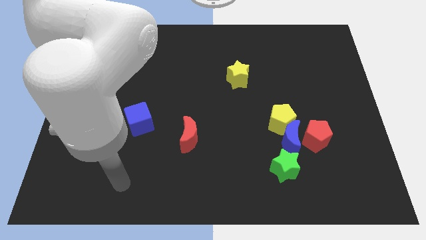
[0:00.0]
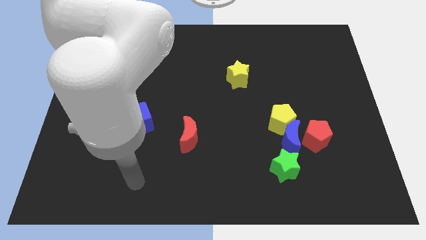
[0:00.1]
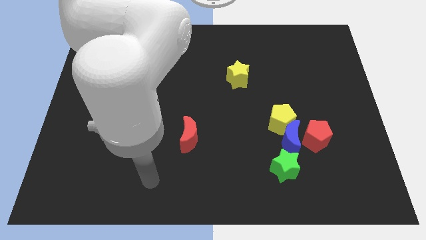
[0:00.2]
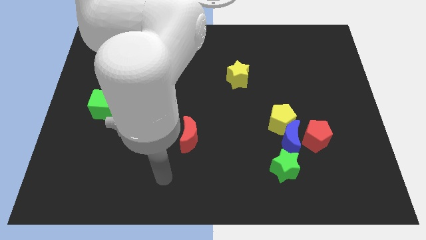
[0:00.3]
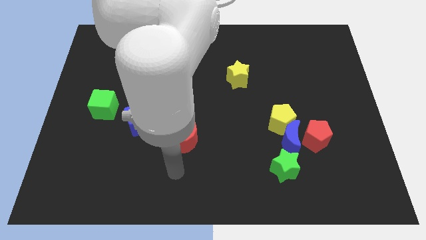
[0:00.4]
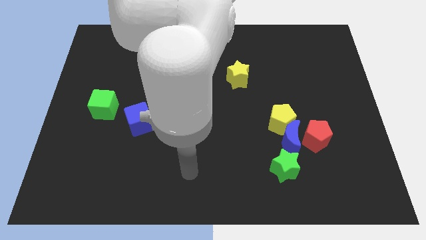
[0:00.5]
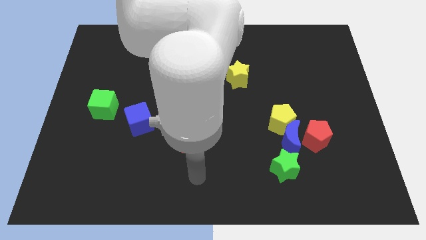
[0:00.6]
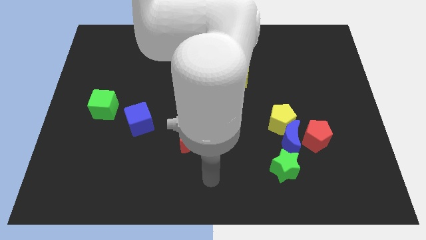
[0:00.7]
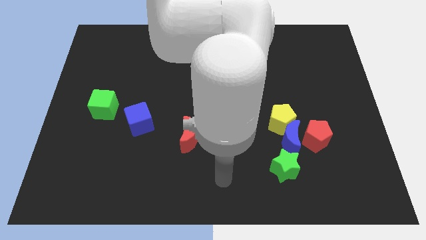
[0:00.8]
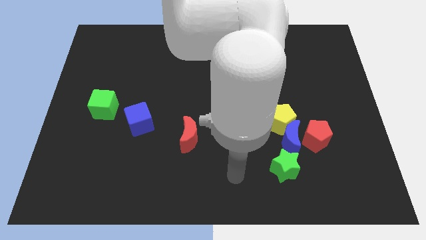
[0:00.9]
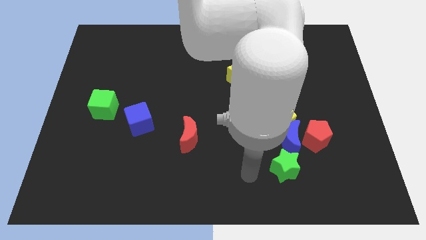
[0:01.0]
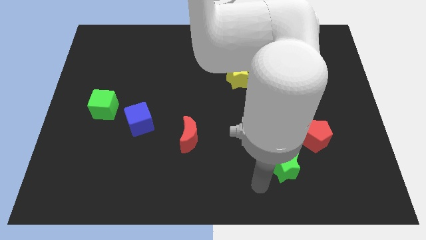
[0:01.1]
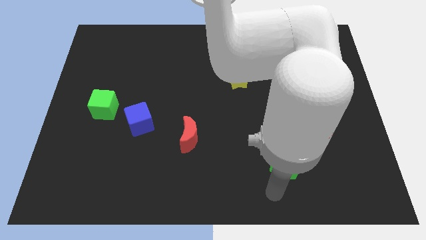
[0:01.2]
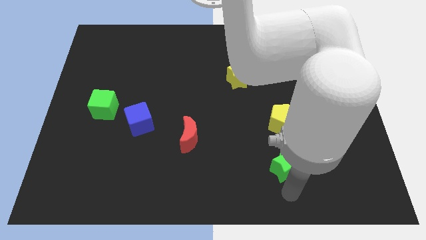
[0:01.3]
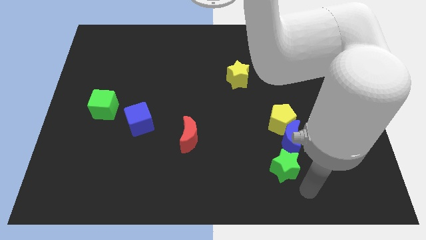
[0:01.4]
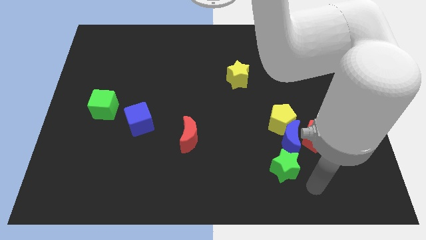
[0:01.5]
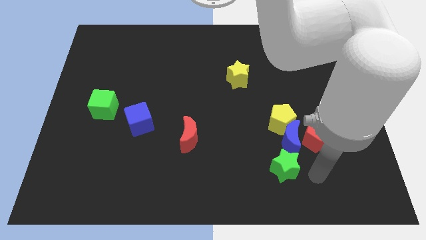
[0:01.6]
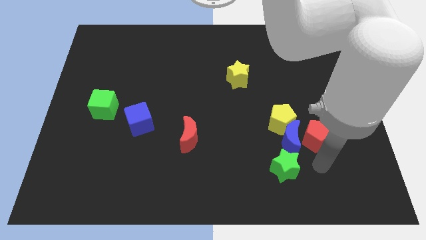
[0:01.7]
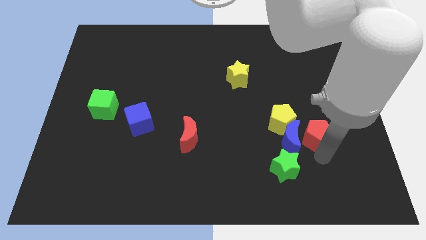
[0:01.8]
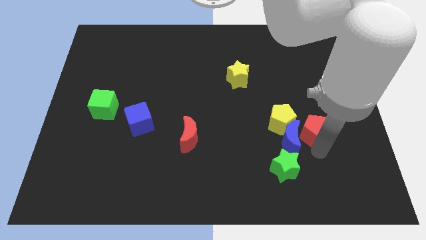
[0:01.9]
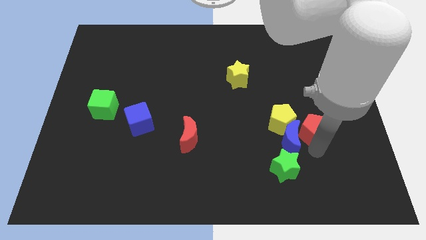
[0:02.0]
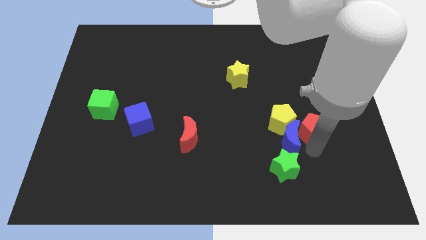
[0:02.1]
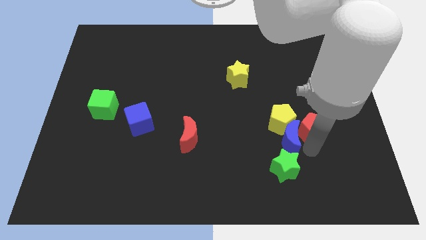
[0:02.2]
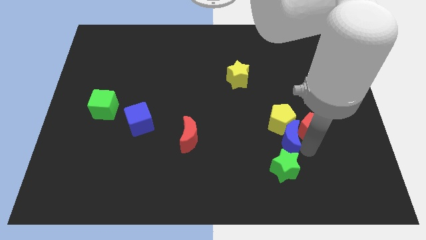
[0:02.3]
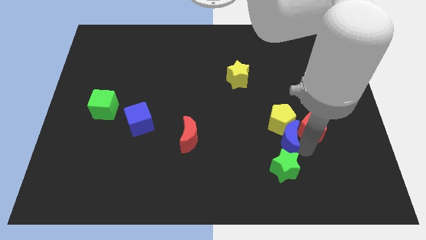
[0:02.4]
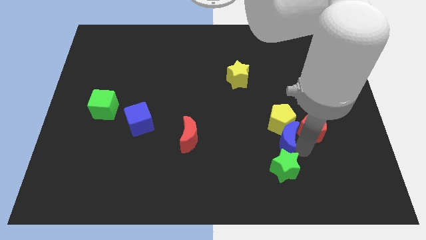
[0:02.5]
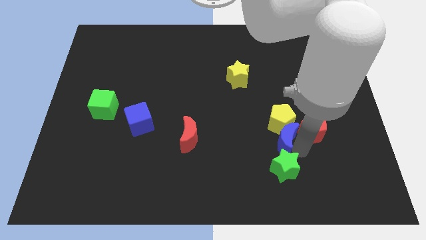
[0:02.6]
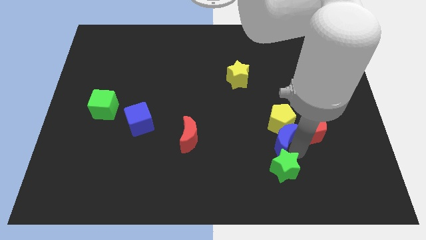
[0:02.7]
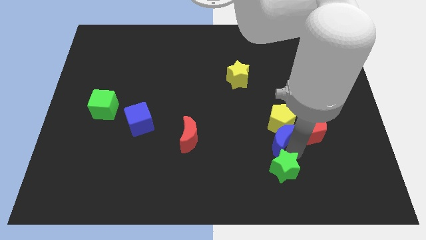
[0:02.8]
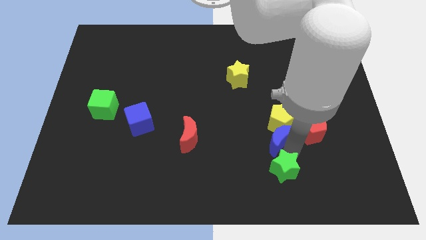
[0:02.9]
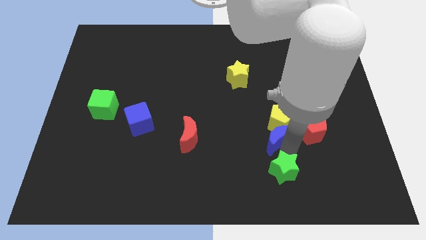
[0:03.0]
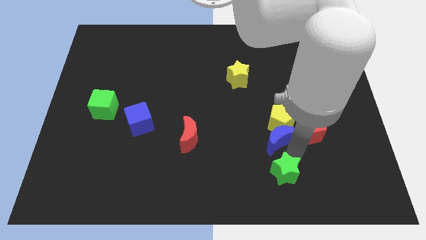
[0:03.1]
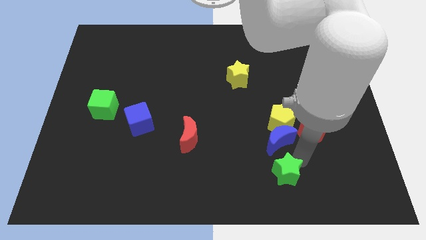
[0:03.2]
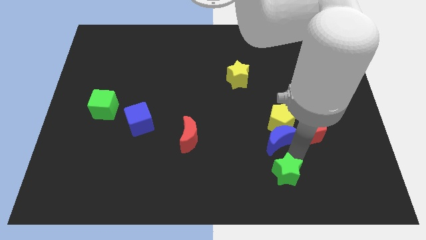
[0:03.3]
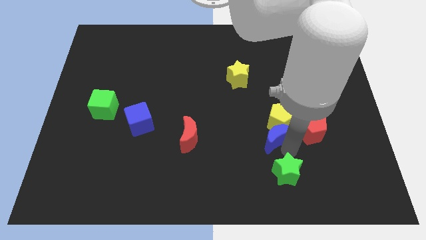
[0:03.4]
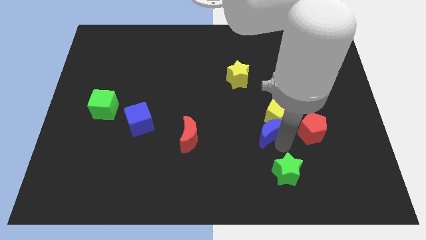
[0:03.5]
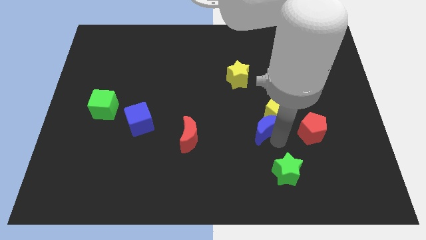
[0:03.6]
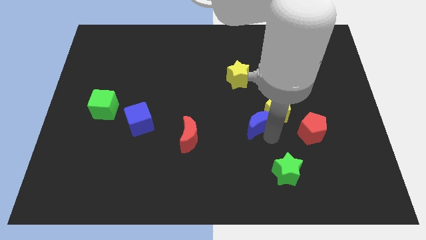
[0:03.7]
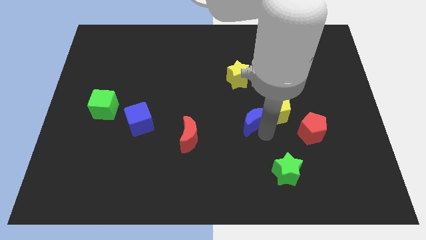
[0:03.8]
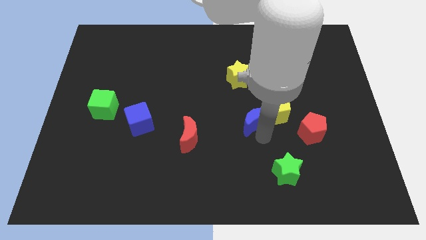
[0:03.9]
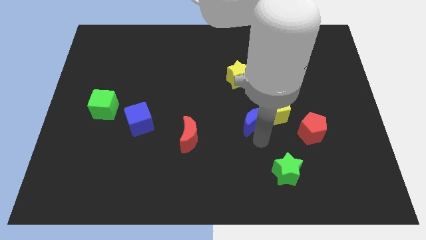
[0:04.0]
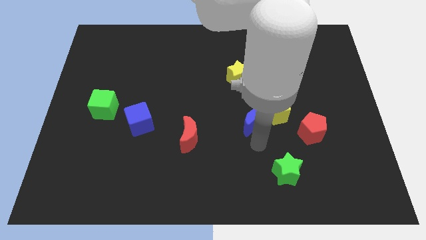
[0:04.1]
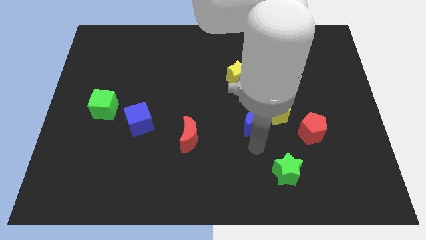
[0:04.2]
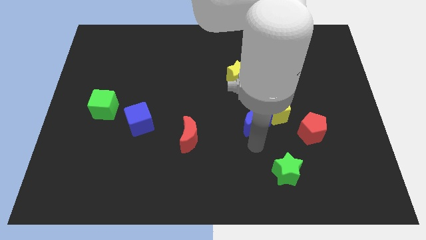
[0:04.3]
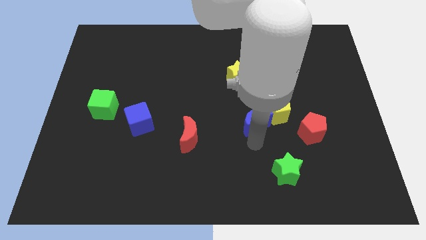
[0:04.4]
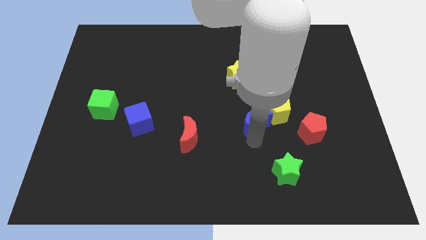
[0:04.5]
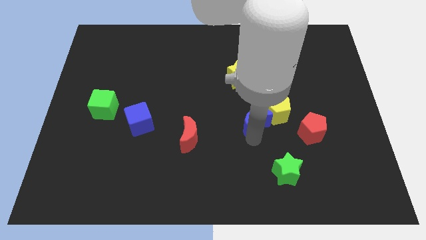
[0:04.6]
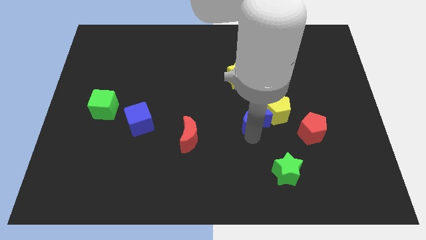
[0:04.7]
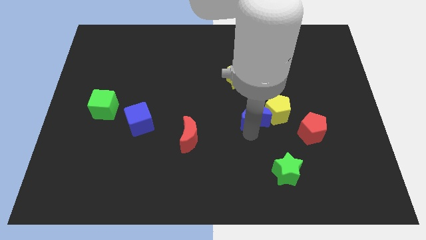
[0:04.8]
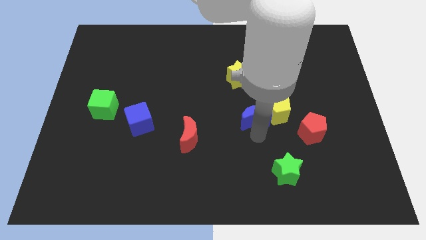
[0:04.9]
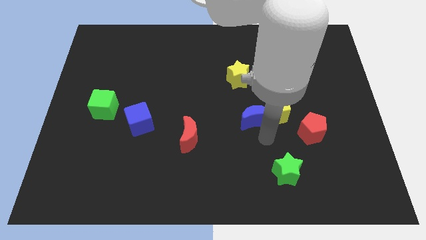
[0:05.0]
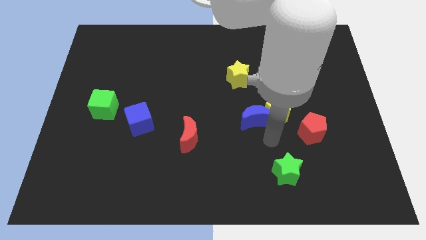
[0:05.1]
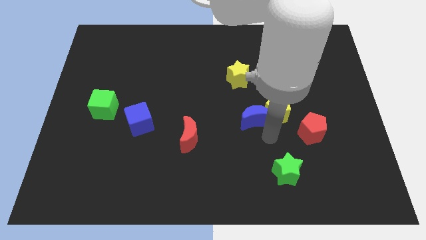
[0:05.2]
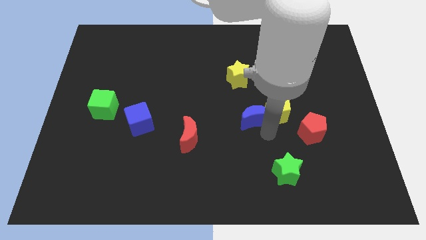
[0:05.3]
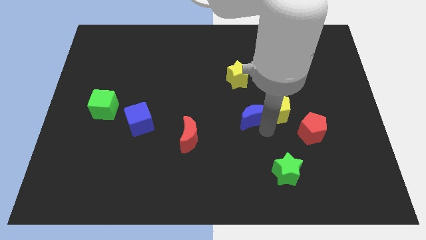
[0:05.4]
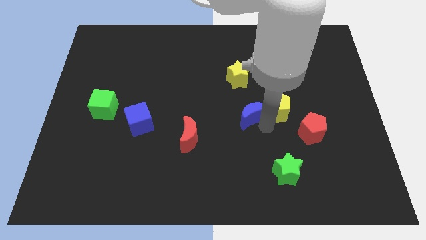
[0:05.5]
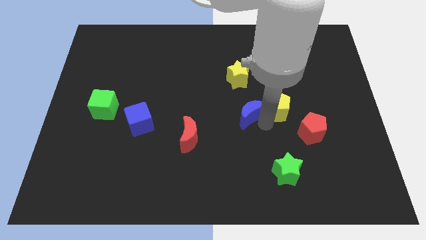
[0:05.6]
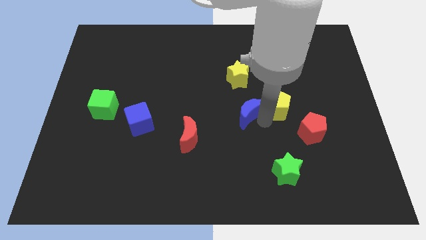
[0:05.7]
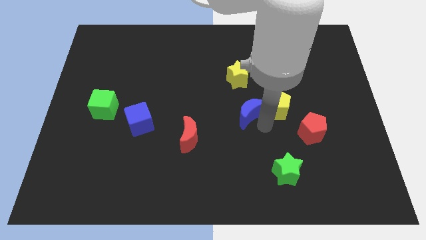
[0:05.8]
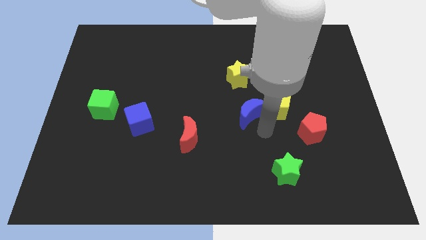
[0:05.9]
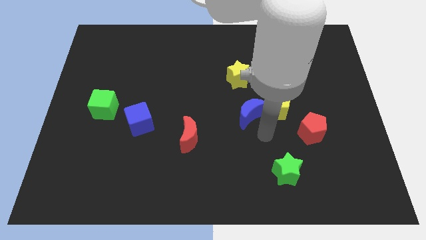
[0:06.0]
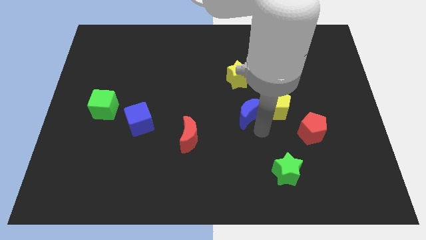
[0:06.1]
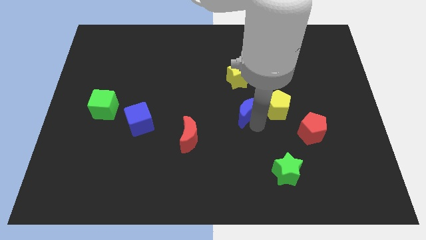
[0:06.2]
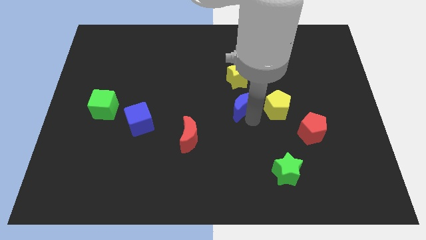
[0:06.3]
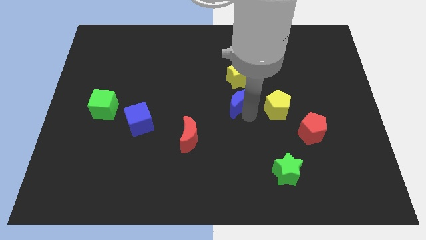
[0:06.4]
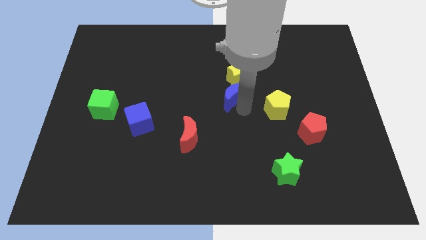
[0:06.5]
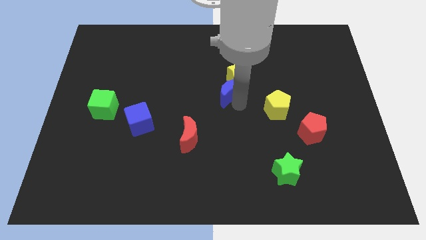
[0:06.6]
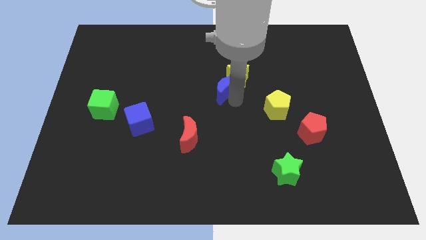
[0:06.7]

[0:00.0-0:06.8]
push the blue moon up and left diagonally

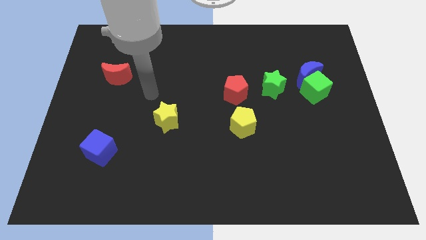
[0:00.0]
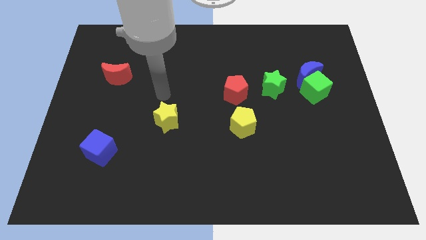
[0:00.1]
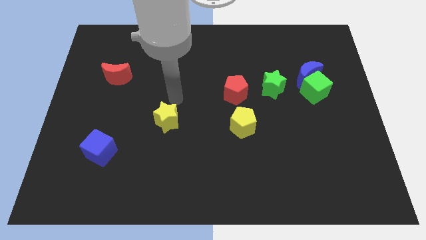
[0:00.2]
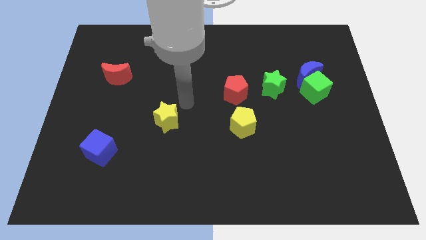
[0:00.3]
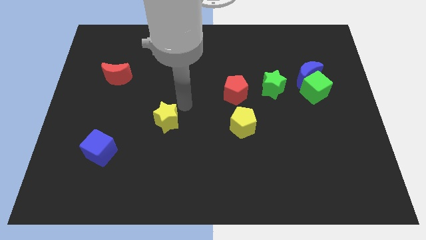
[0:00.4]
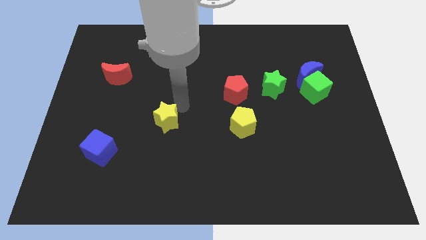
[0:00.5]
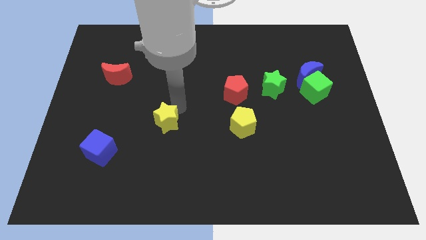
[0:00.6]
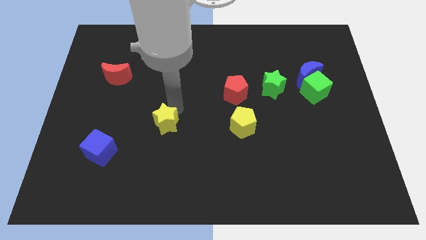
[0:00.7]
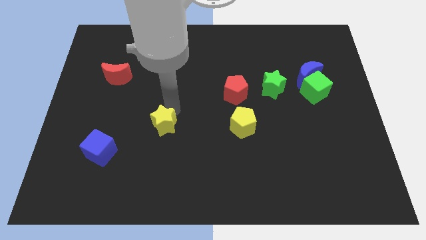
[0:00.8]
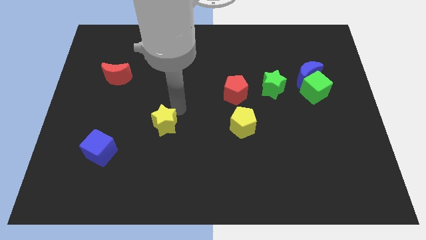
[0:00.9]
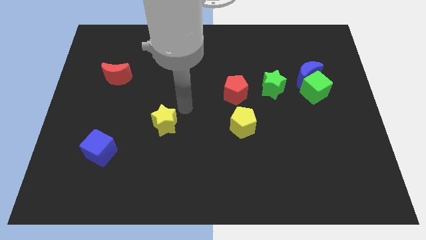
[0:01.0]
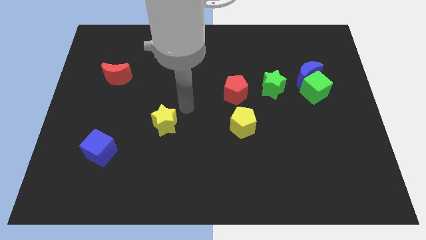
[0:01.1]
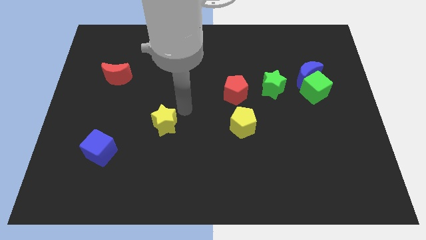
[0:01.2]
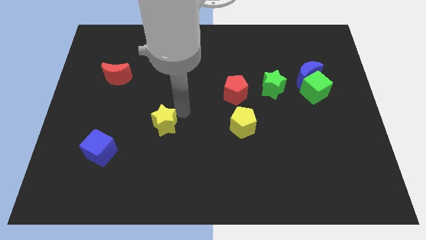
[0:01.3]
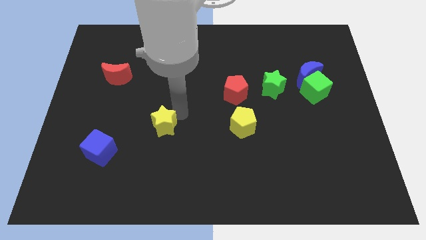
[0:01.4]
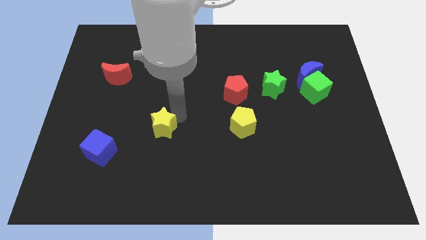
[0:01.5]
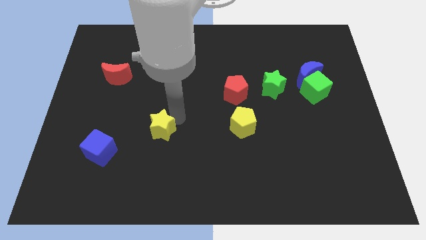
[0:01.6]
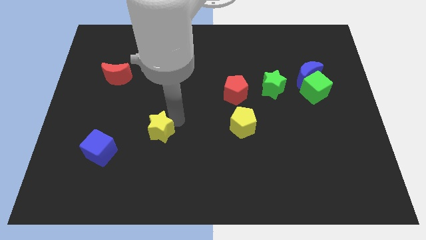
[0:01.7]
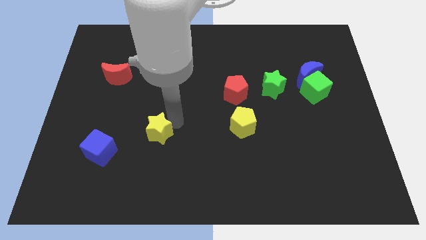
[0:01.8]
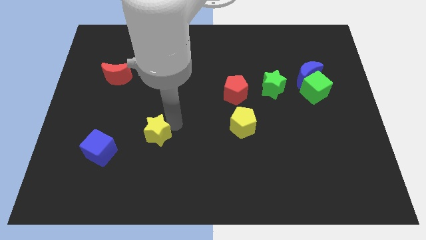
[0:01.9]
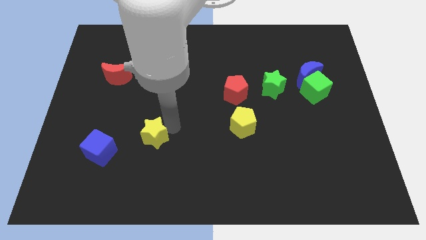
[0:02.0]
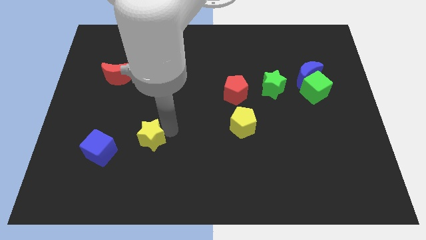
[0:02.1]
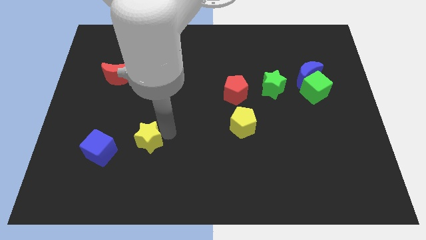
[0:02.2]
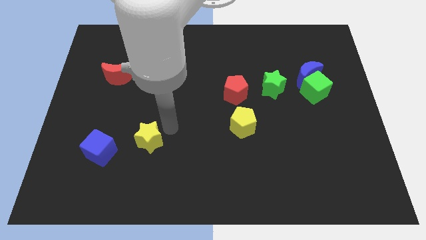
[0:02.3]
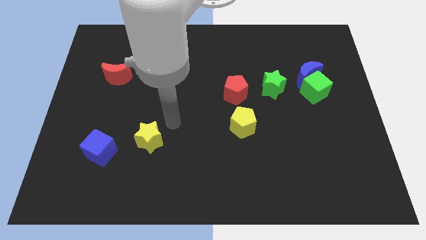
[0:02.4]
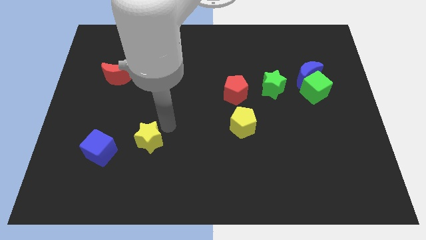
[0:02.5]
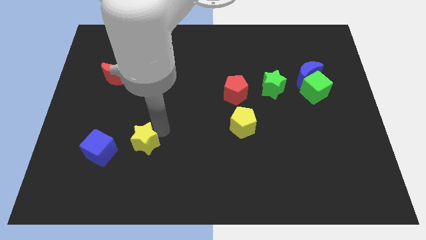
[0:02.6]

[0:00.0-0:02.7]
move the yellow star downwards and then to the left a little bit
